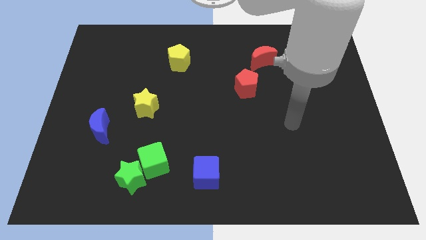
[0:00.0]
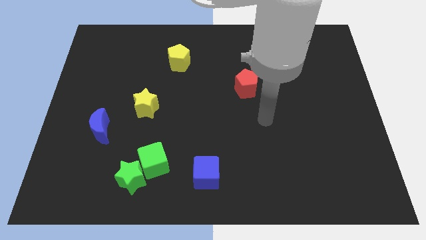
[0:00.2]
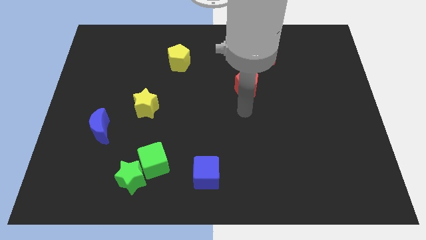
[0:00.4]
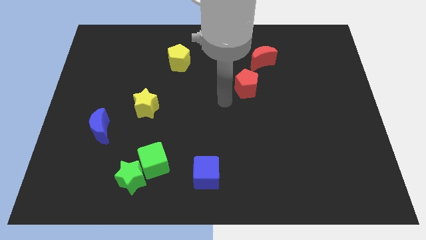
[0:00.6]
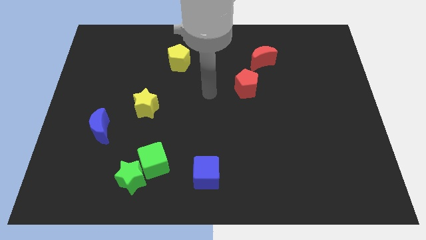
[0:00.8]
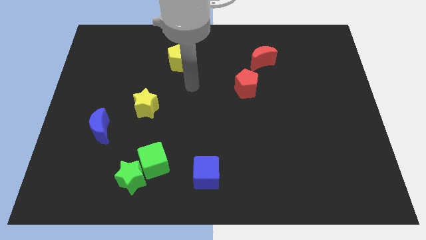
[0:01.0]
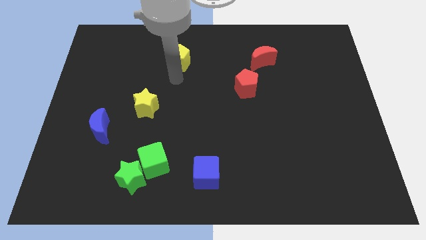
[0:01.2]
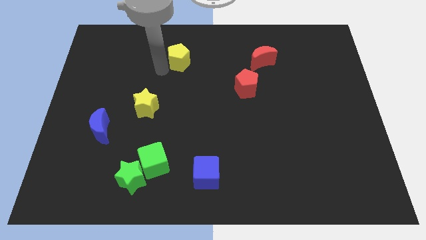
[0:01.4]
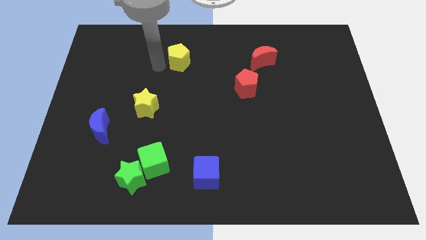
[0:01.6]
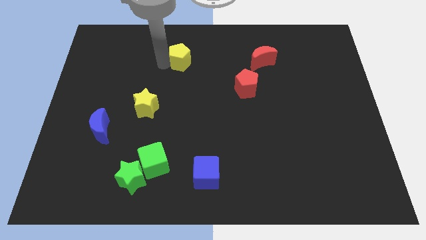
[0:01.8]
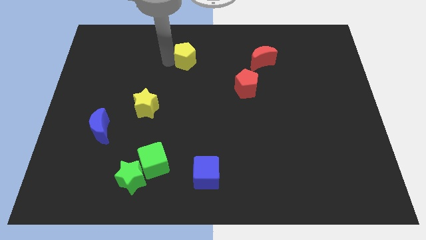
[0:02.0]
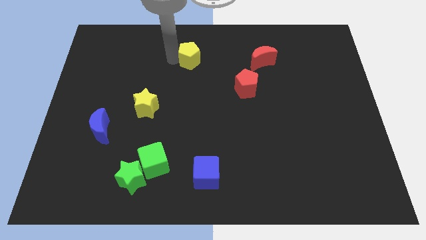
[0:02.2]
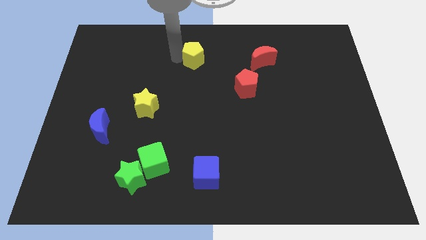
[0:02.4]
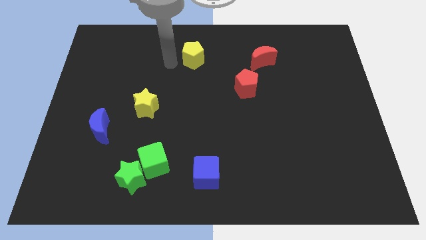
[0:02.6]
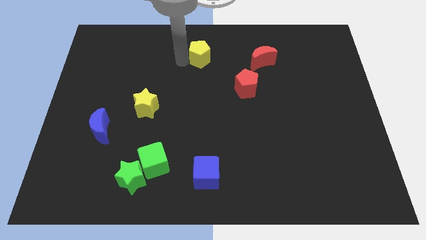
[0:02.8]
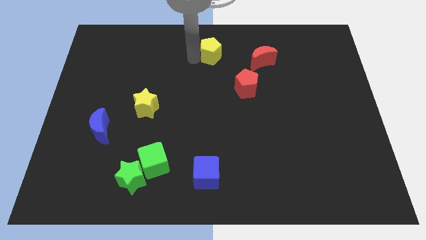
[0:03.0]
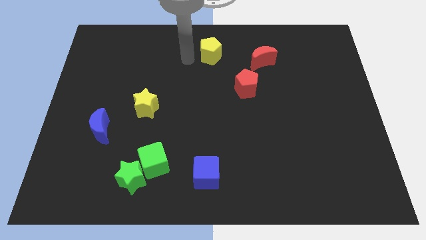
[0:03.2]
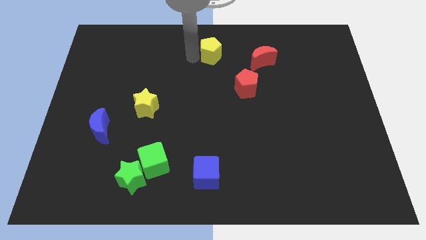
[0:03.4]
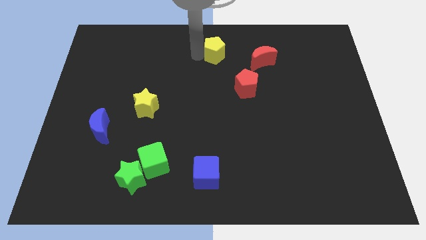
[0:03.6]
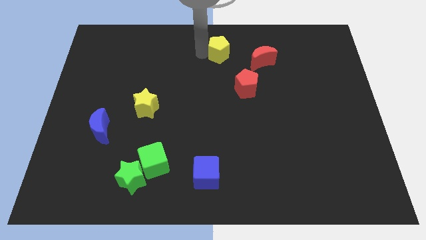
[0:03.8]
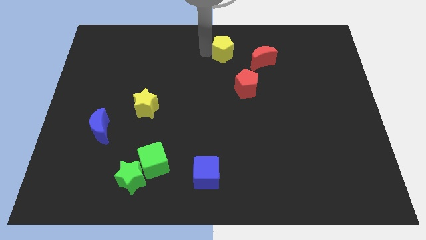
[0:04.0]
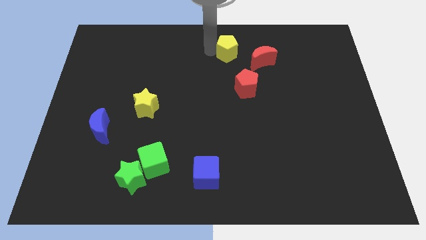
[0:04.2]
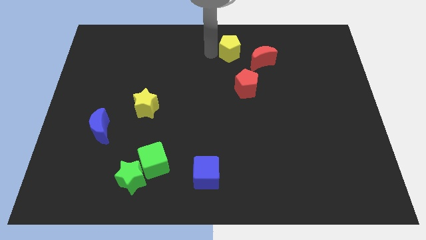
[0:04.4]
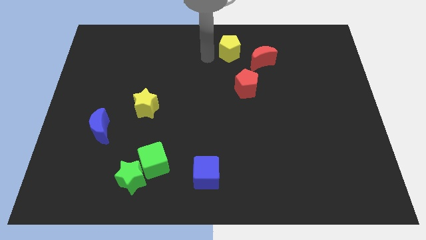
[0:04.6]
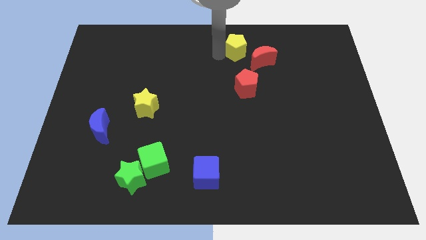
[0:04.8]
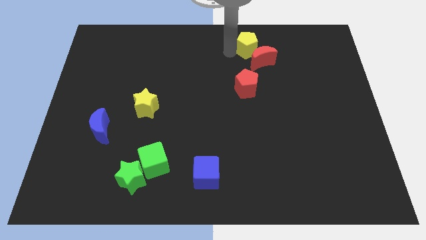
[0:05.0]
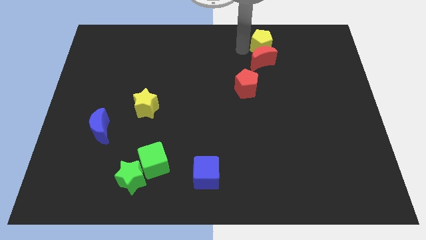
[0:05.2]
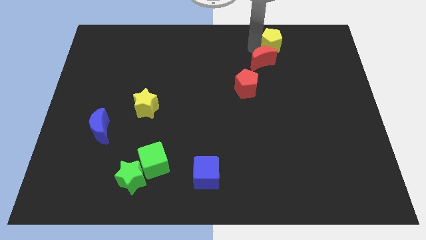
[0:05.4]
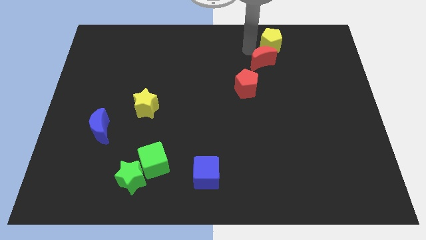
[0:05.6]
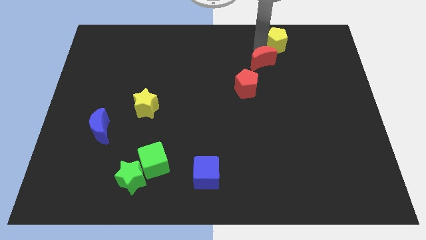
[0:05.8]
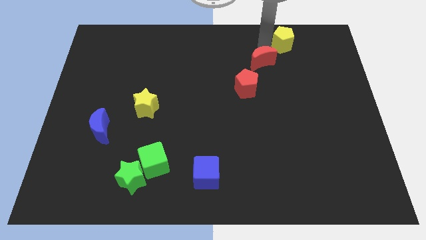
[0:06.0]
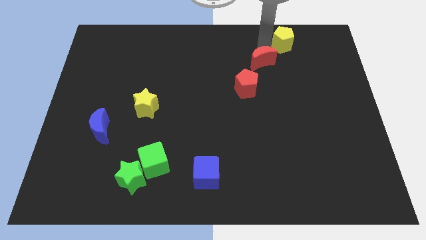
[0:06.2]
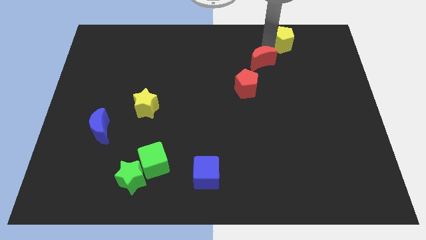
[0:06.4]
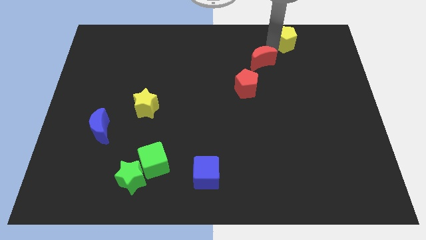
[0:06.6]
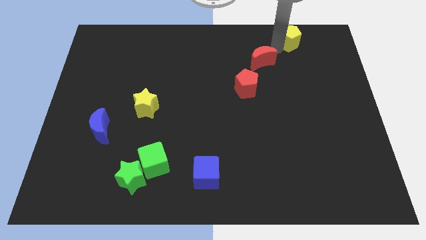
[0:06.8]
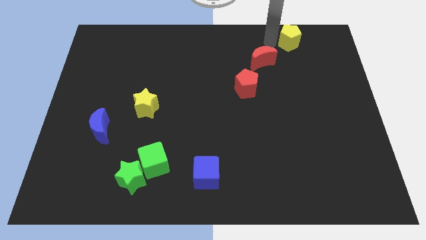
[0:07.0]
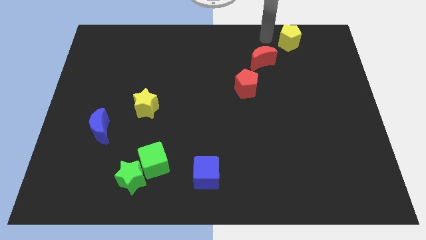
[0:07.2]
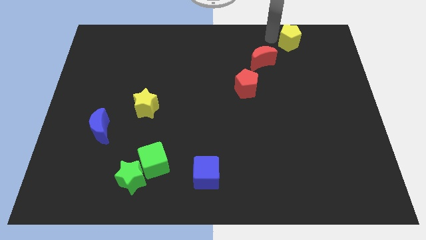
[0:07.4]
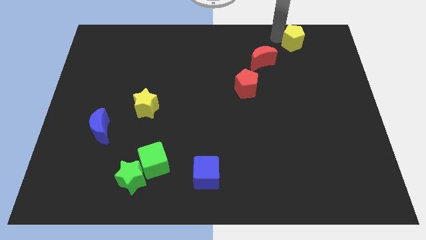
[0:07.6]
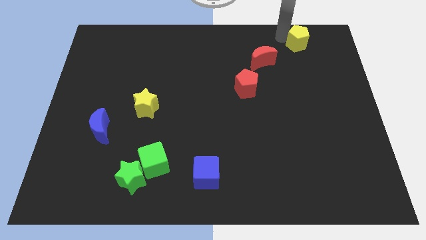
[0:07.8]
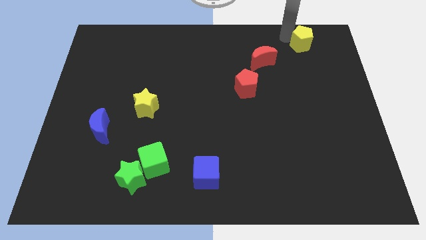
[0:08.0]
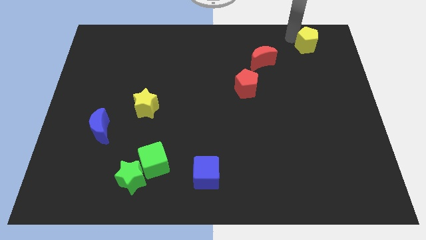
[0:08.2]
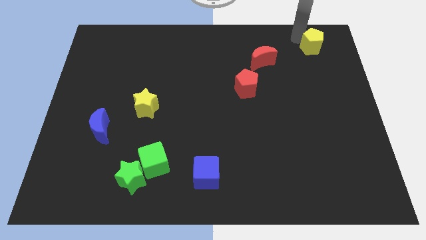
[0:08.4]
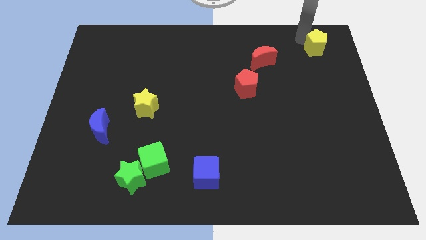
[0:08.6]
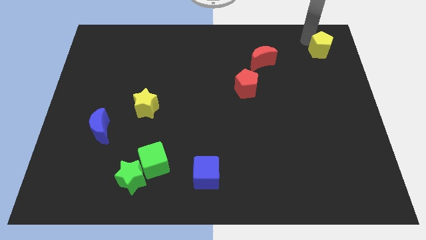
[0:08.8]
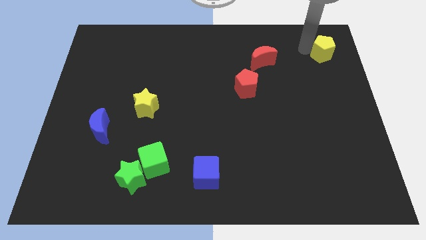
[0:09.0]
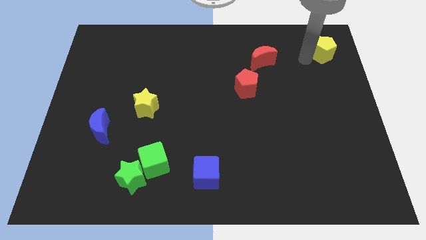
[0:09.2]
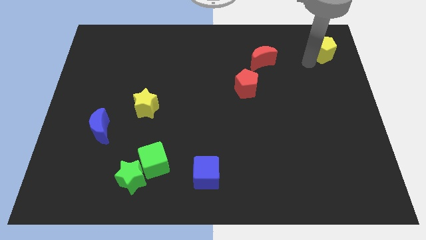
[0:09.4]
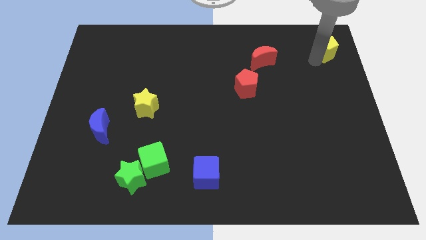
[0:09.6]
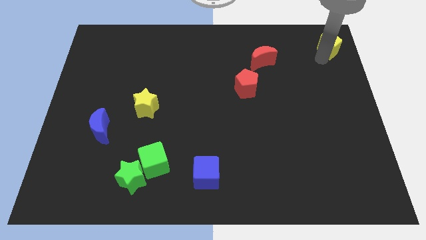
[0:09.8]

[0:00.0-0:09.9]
put the yellow pentagon to the top right of the board
